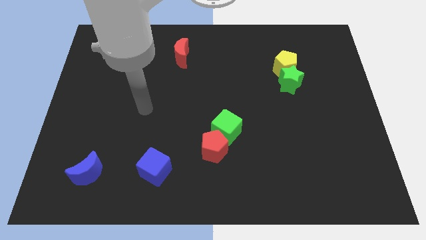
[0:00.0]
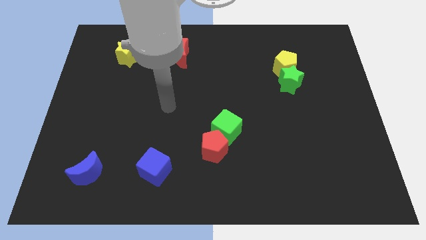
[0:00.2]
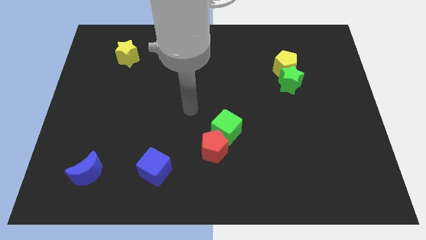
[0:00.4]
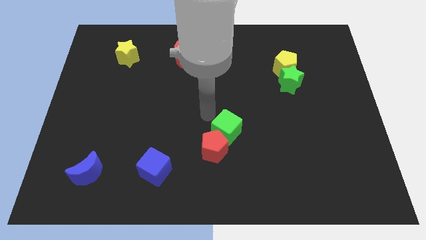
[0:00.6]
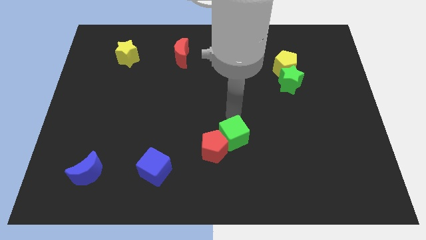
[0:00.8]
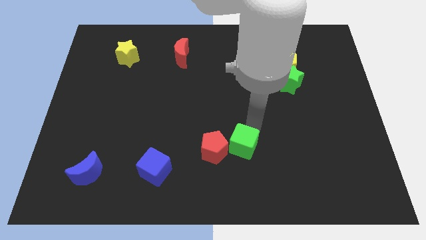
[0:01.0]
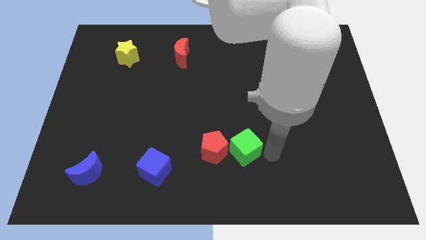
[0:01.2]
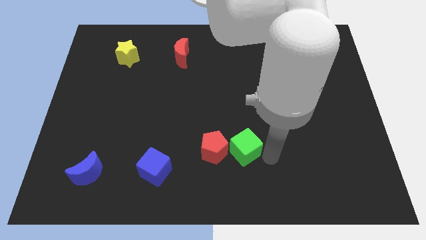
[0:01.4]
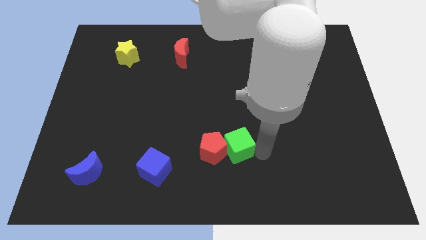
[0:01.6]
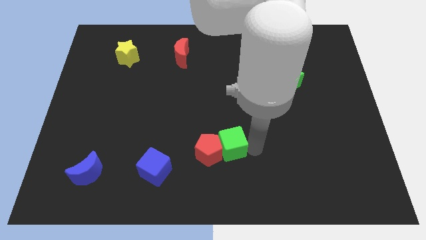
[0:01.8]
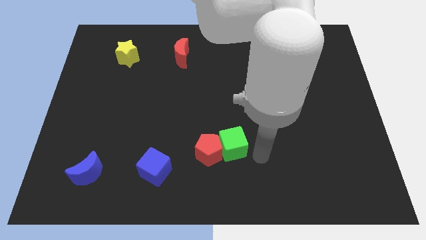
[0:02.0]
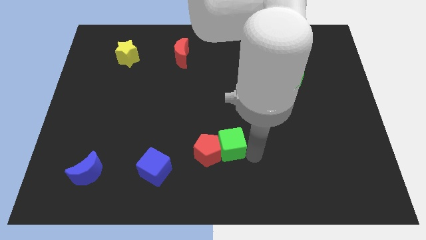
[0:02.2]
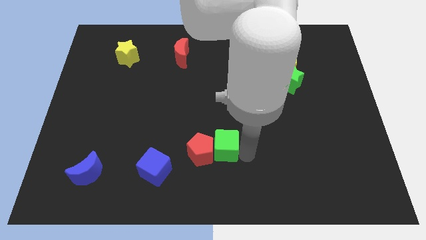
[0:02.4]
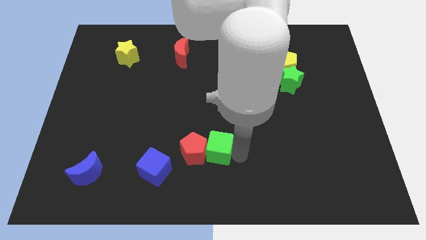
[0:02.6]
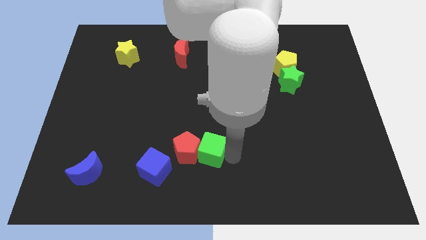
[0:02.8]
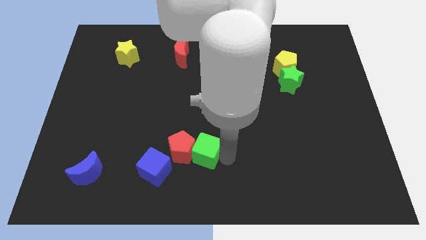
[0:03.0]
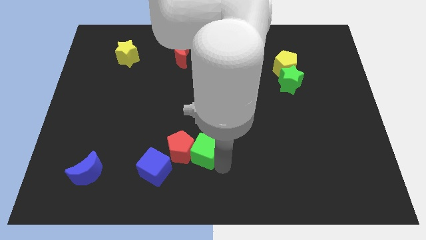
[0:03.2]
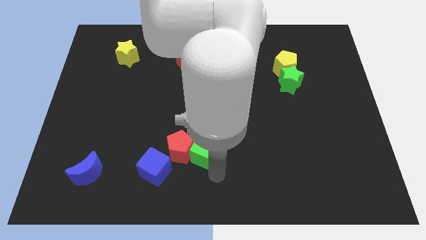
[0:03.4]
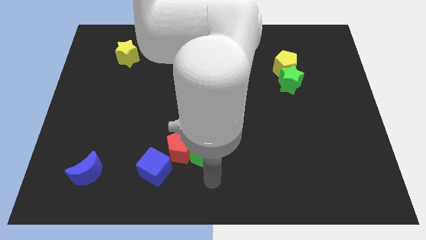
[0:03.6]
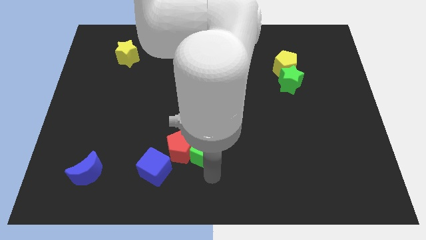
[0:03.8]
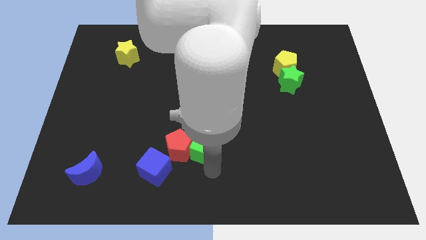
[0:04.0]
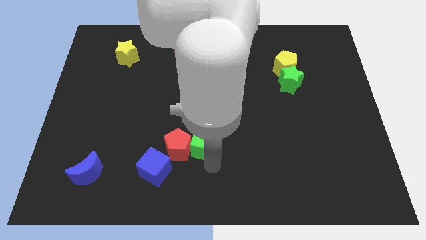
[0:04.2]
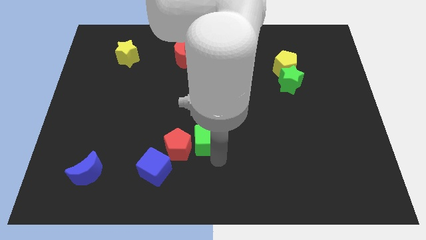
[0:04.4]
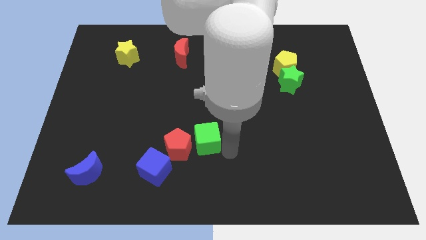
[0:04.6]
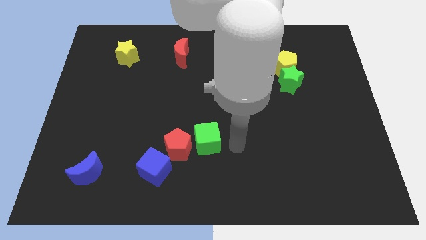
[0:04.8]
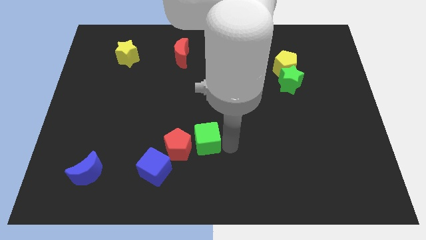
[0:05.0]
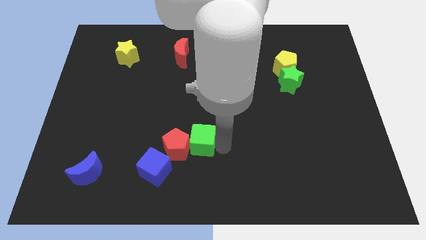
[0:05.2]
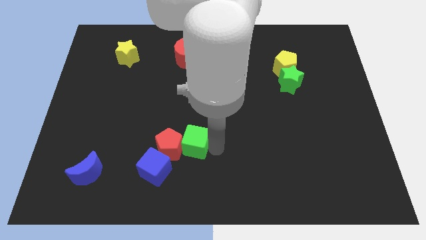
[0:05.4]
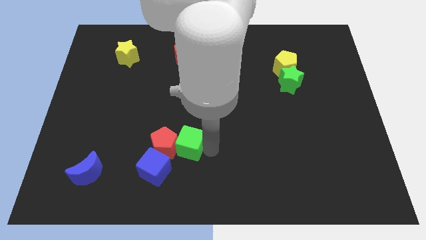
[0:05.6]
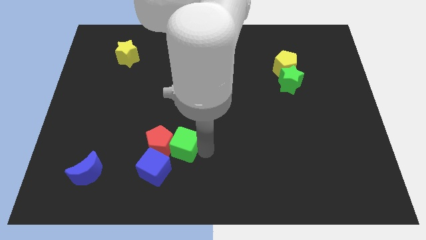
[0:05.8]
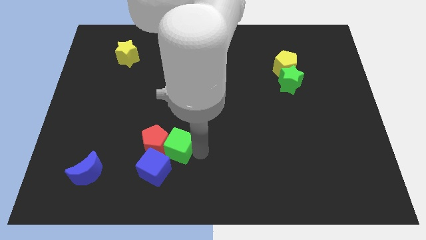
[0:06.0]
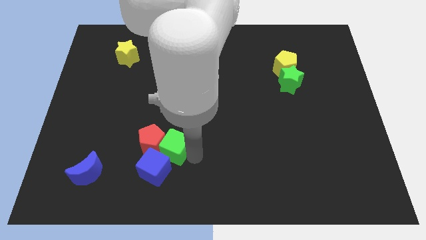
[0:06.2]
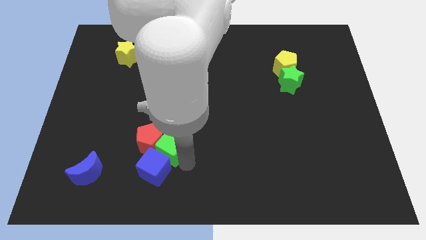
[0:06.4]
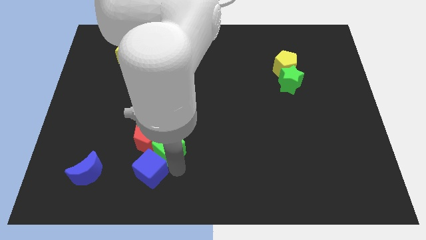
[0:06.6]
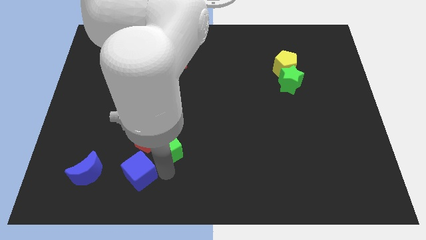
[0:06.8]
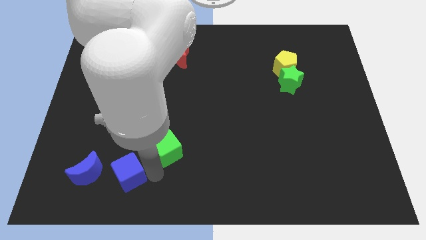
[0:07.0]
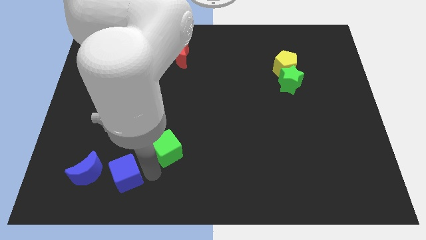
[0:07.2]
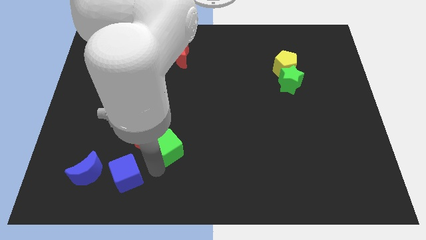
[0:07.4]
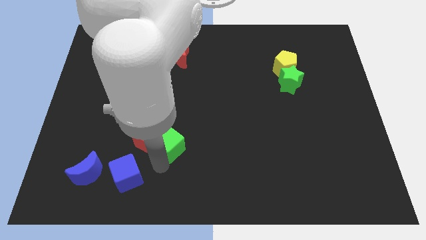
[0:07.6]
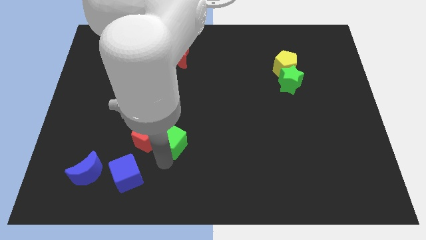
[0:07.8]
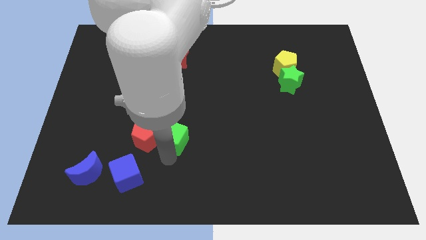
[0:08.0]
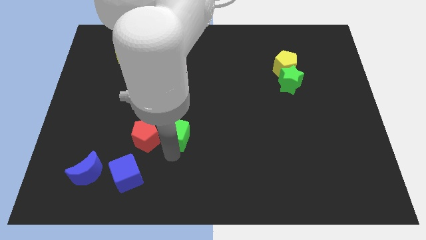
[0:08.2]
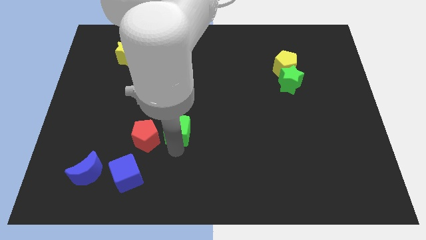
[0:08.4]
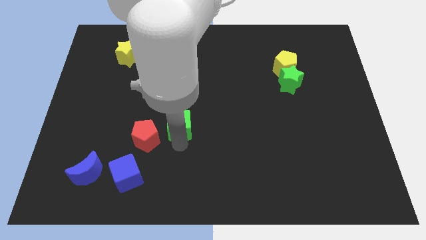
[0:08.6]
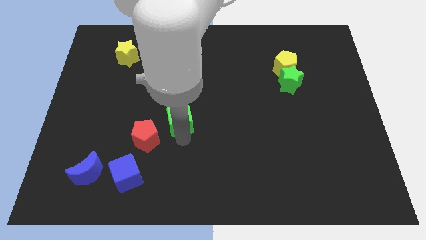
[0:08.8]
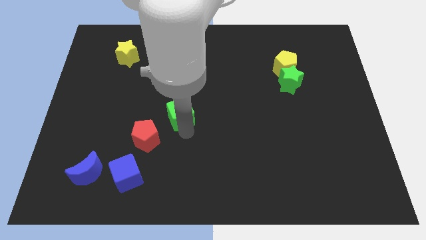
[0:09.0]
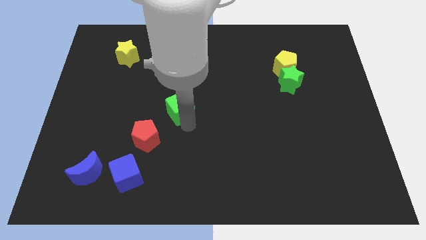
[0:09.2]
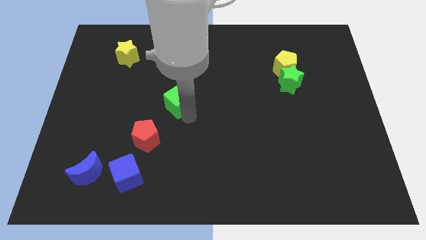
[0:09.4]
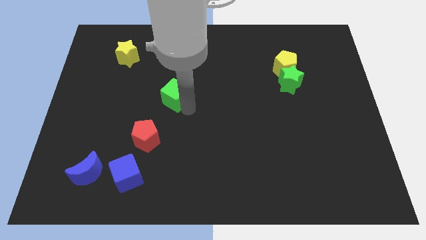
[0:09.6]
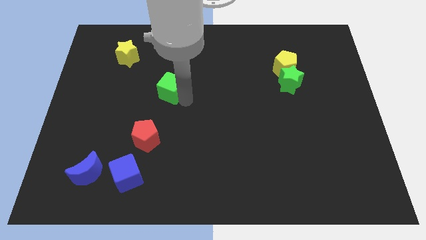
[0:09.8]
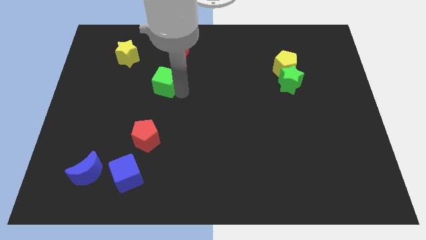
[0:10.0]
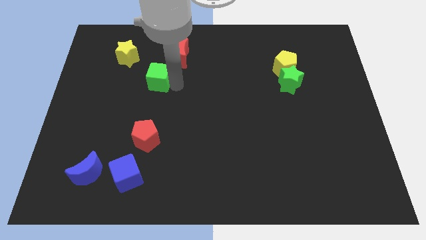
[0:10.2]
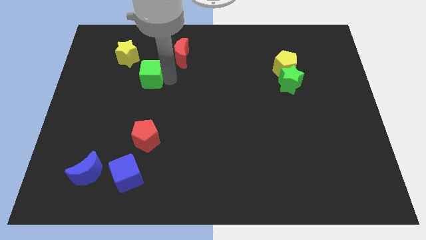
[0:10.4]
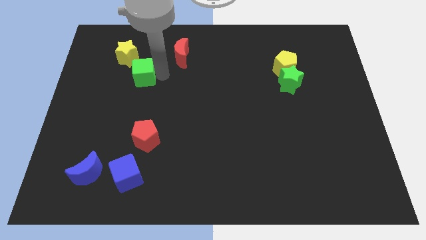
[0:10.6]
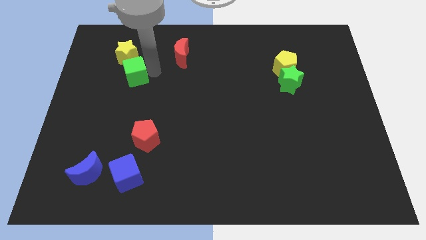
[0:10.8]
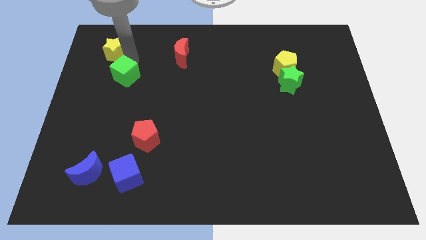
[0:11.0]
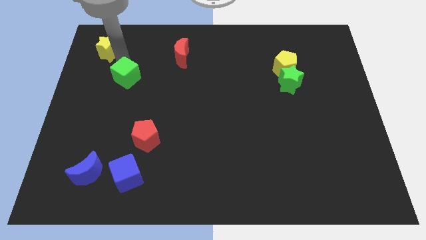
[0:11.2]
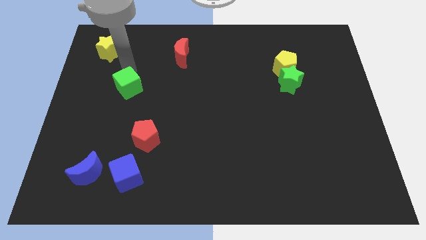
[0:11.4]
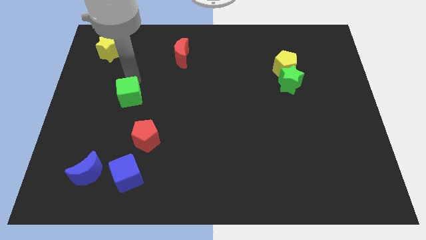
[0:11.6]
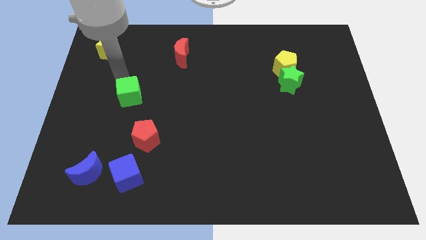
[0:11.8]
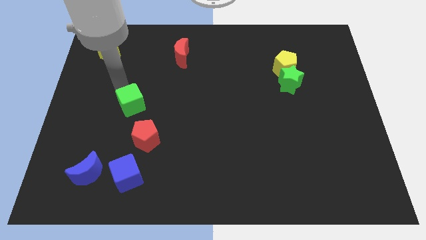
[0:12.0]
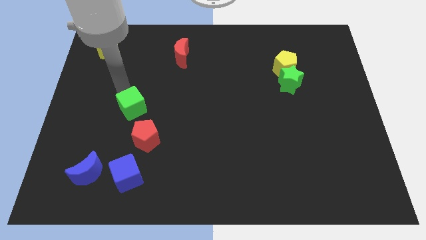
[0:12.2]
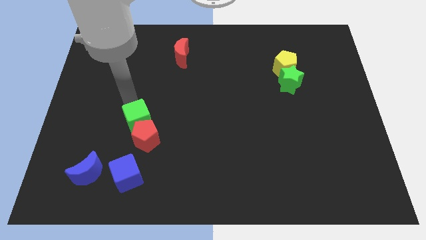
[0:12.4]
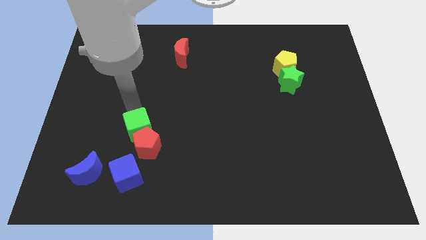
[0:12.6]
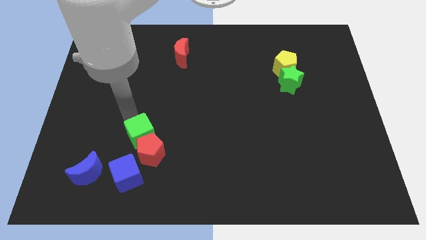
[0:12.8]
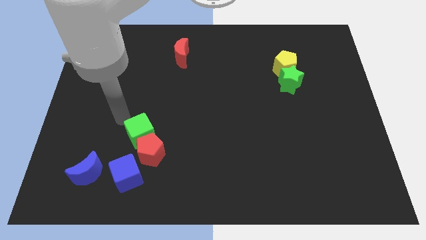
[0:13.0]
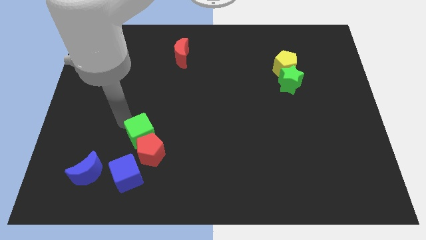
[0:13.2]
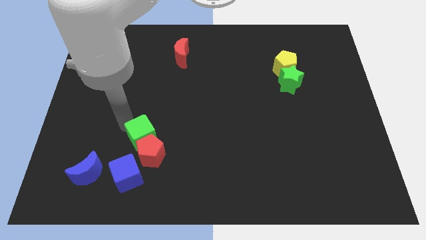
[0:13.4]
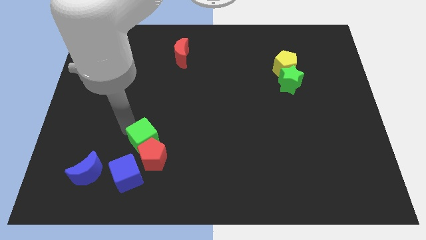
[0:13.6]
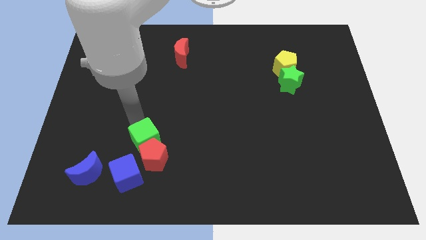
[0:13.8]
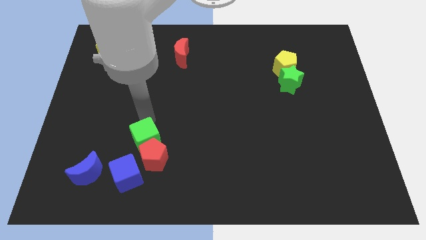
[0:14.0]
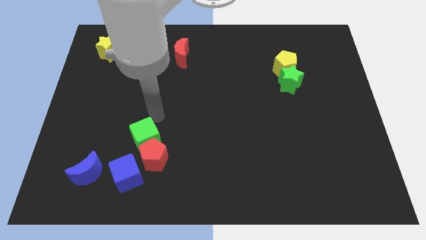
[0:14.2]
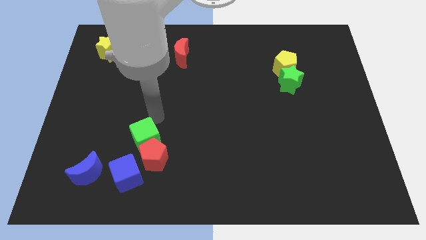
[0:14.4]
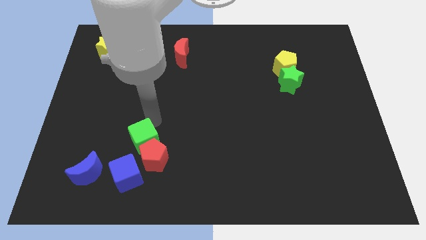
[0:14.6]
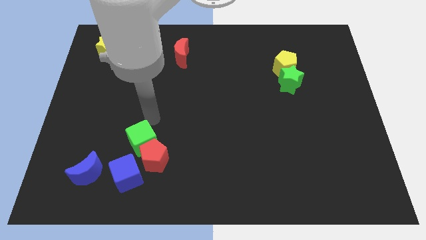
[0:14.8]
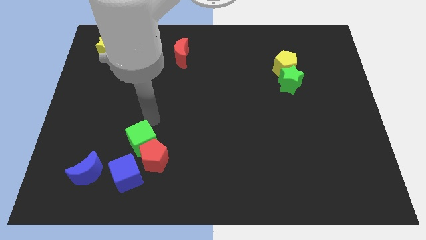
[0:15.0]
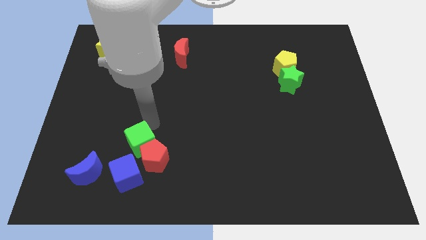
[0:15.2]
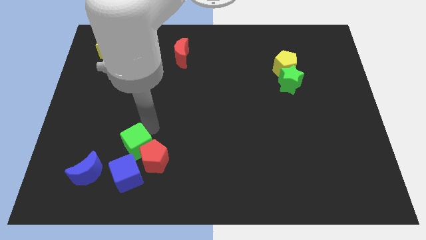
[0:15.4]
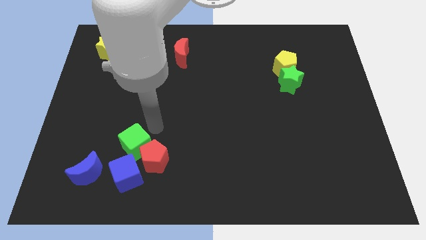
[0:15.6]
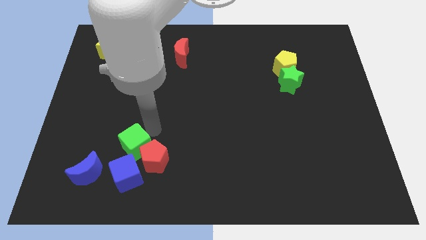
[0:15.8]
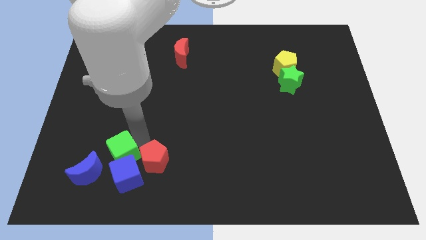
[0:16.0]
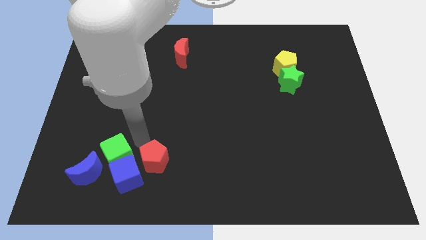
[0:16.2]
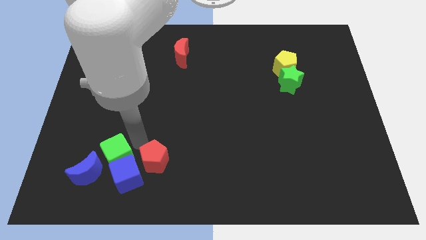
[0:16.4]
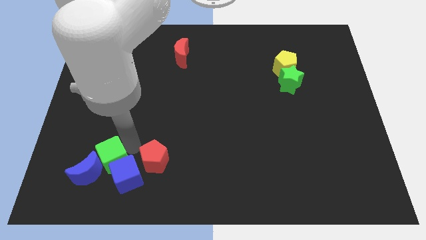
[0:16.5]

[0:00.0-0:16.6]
slide the green cube next to the blue moon
